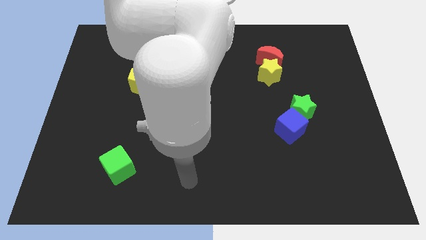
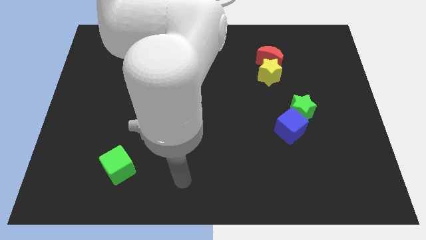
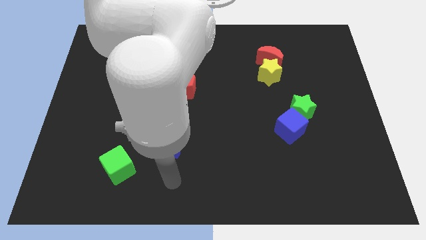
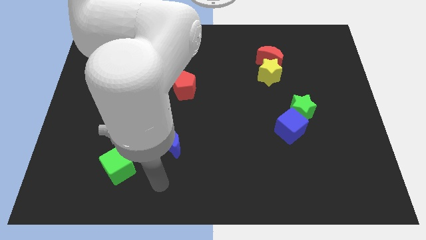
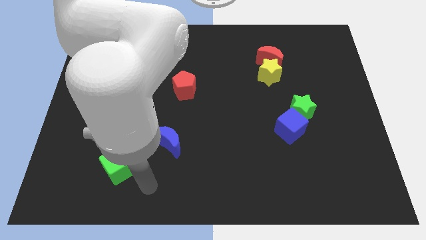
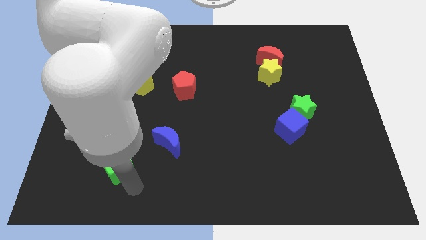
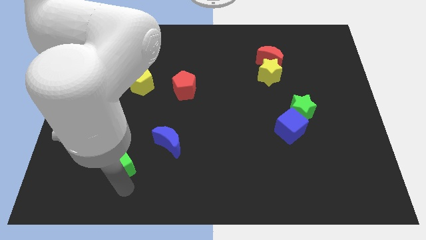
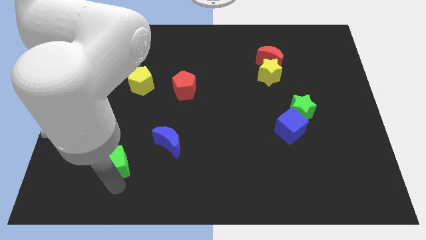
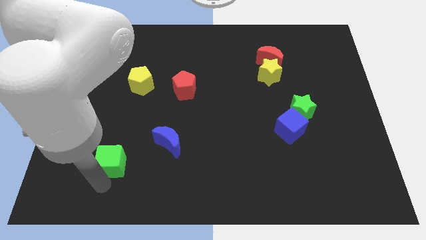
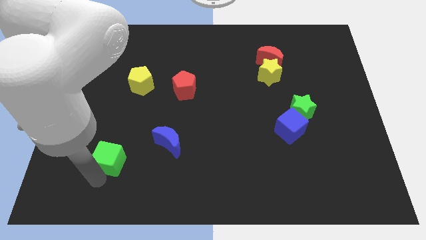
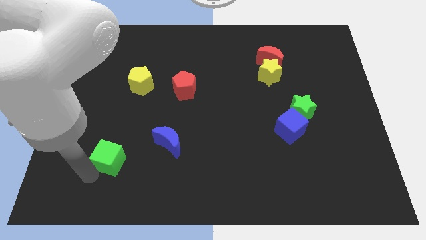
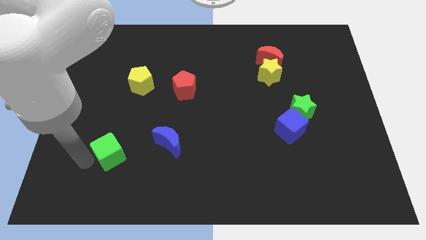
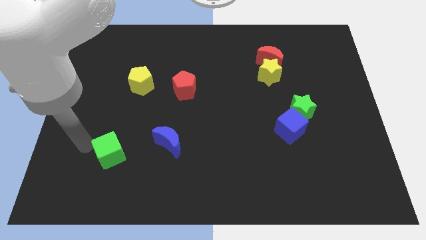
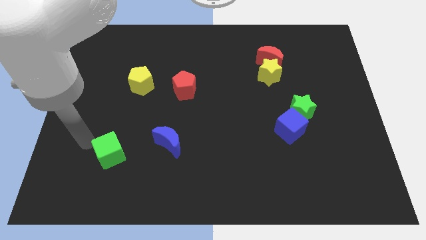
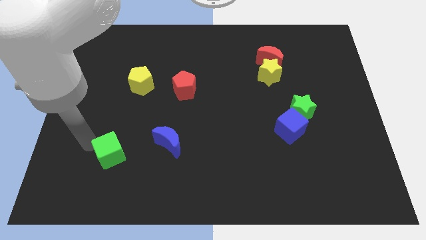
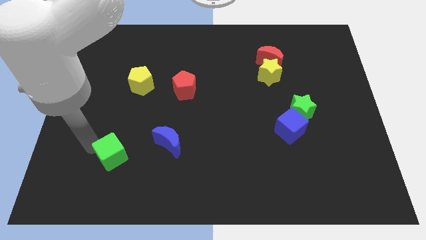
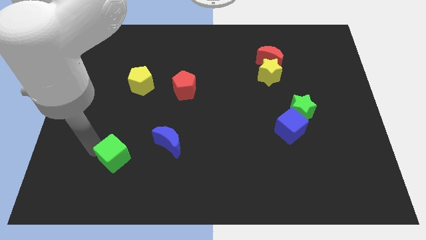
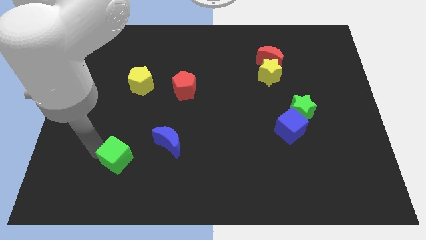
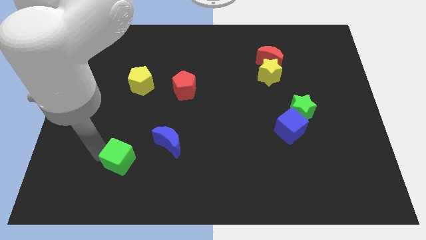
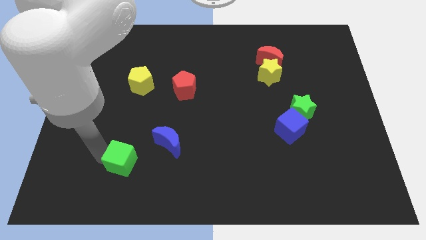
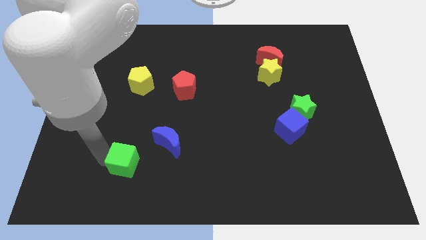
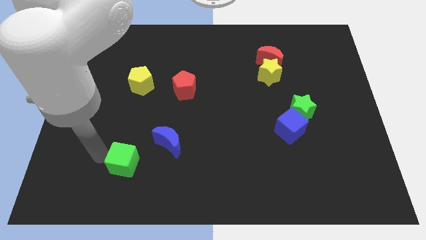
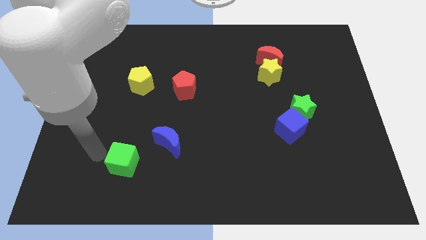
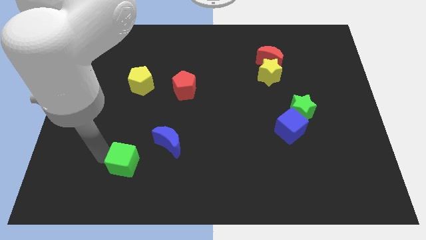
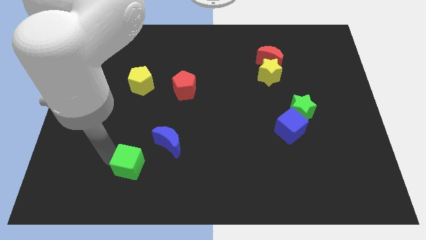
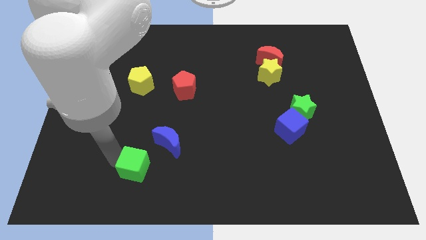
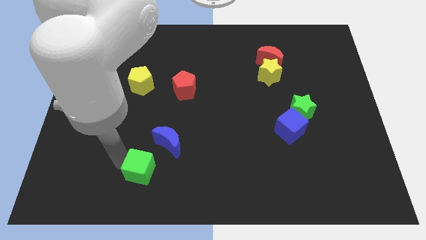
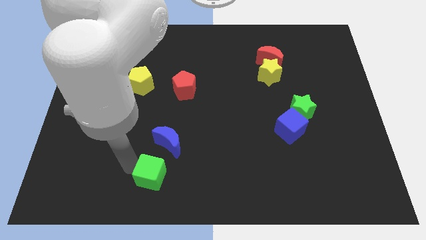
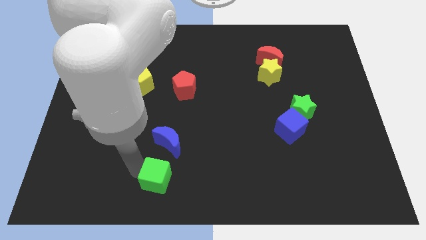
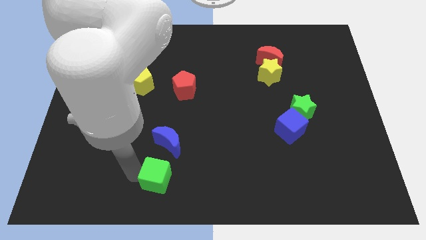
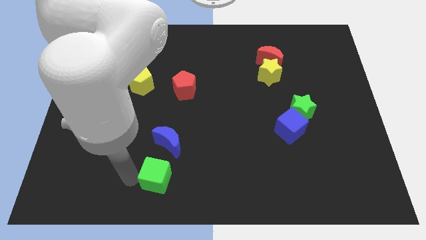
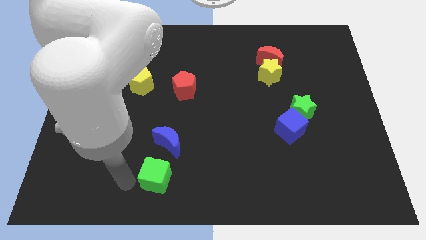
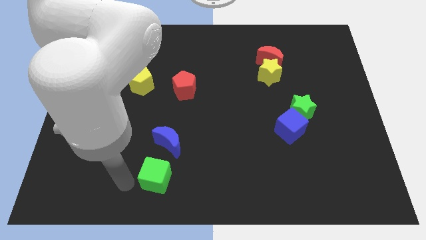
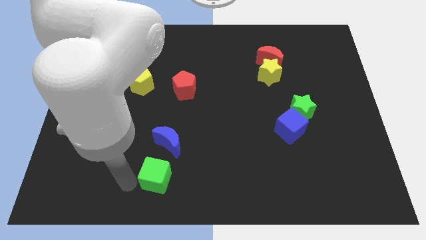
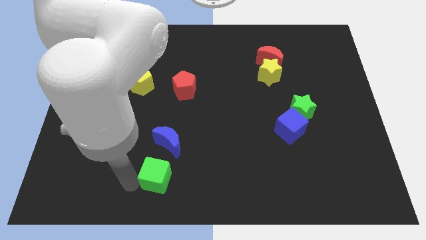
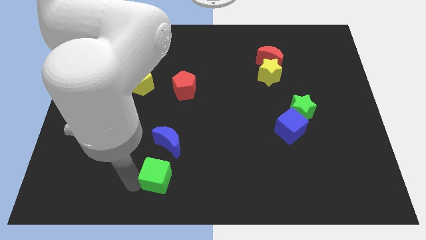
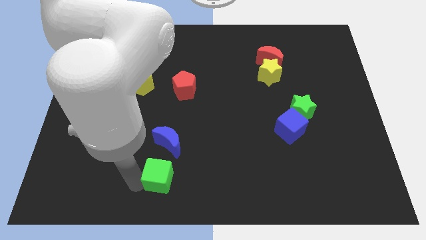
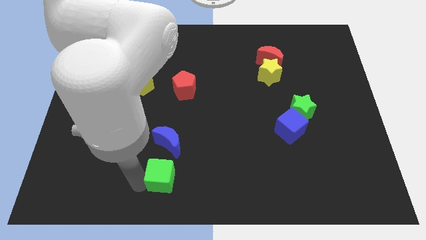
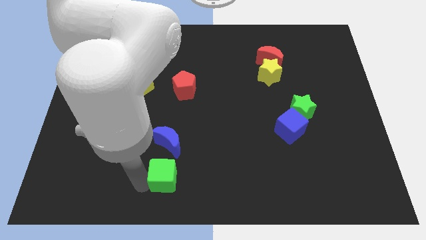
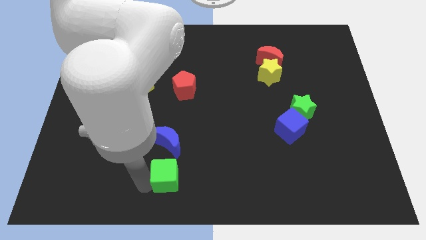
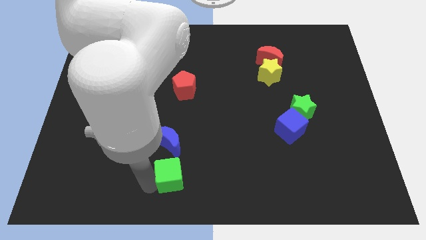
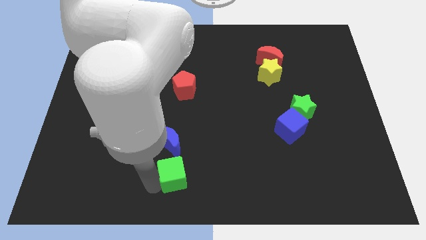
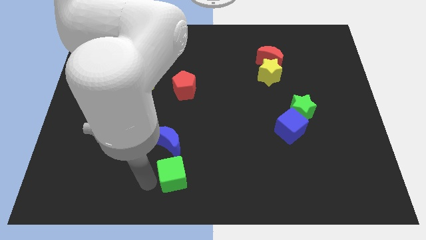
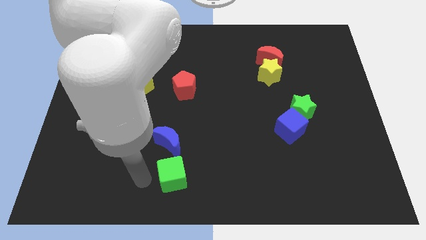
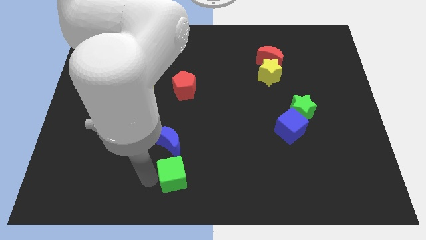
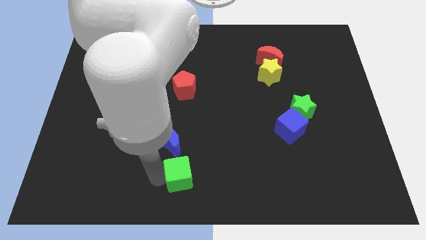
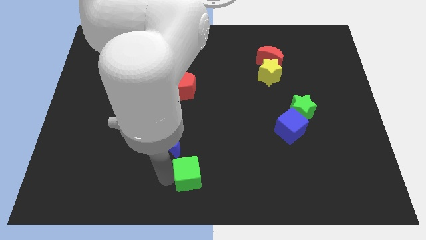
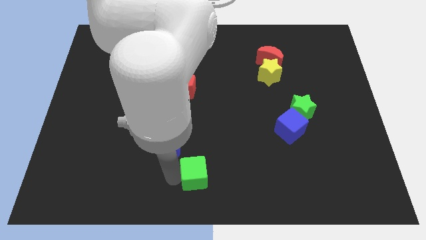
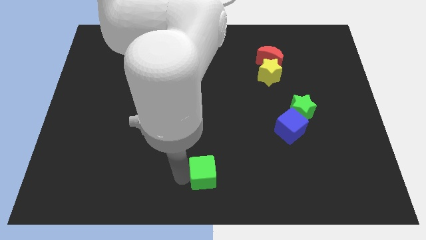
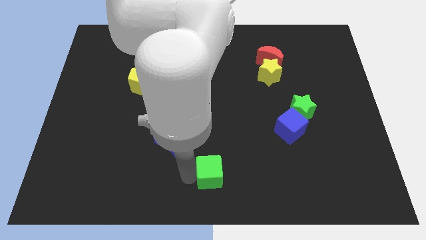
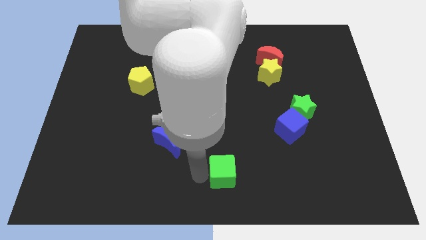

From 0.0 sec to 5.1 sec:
move the green cube to the right

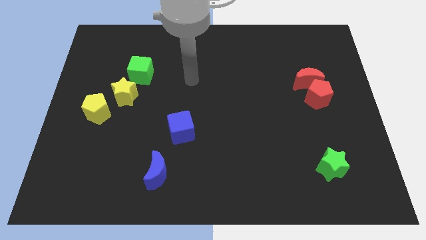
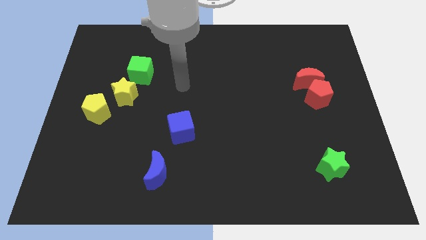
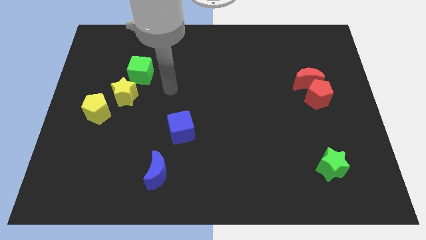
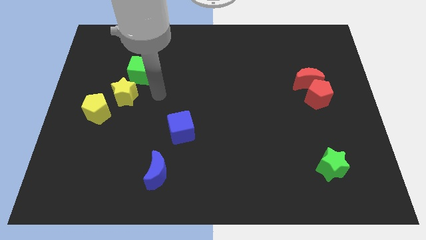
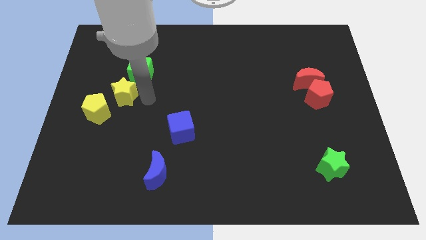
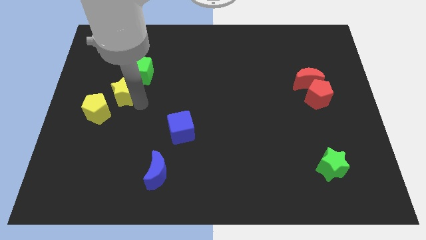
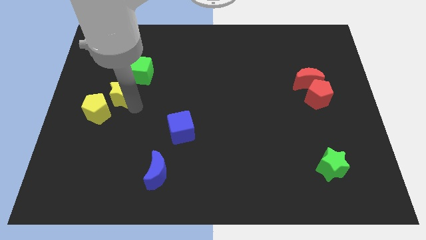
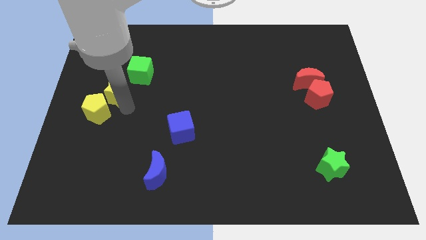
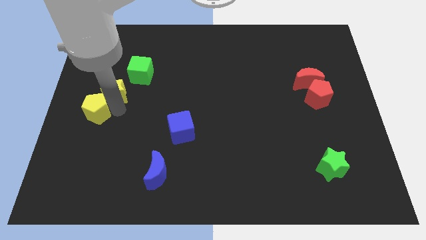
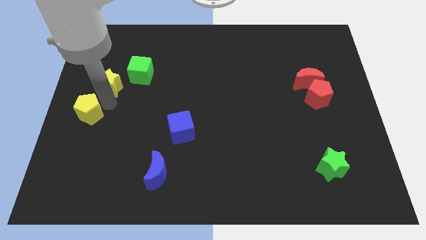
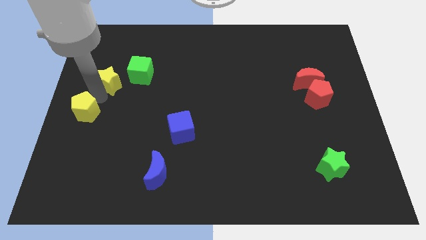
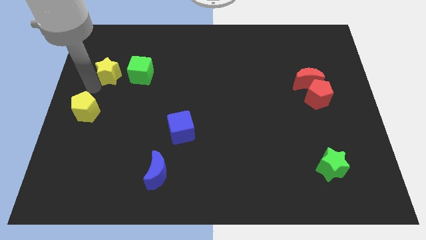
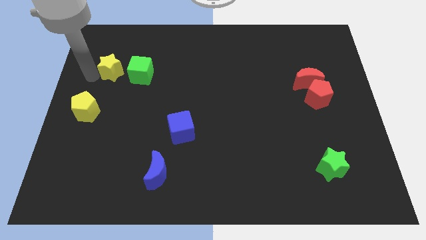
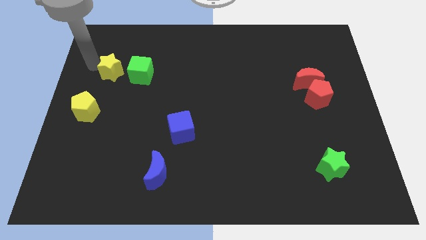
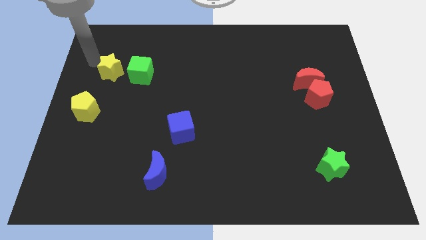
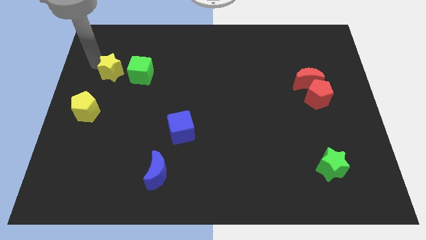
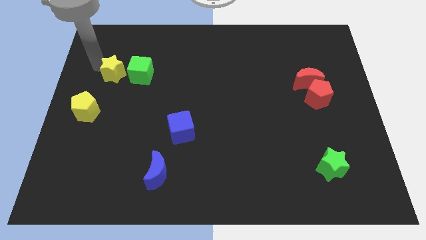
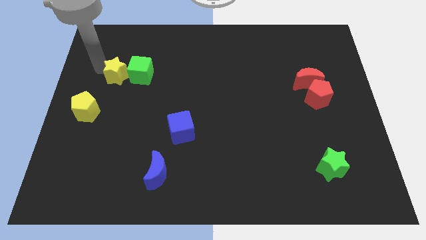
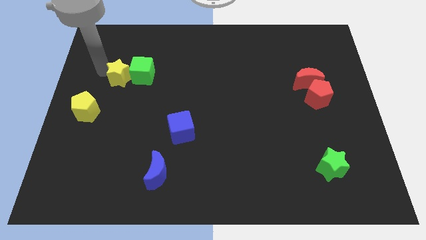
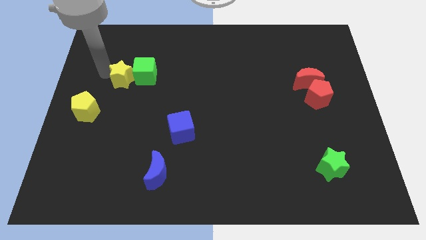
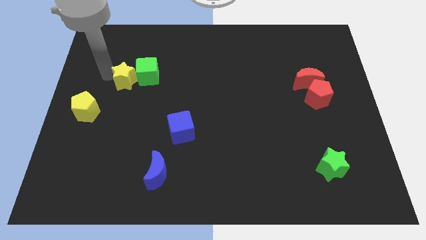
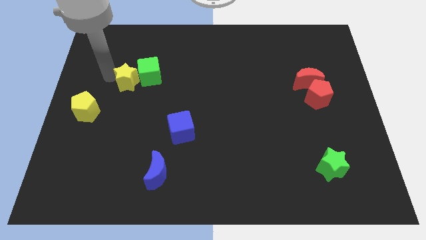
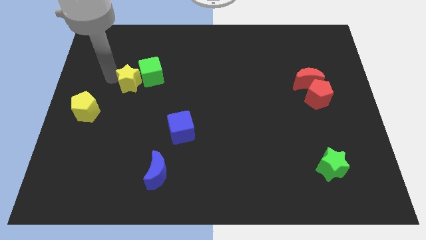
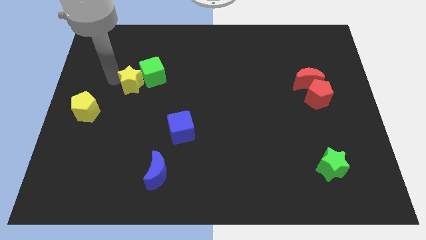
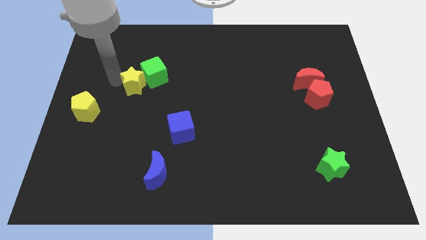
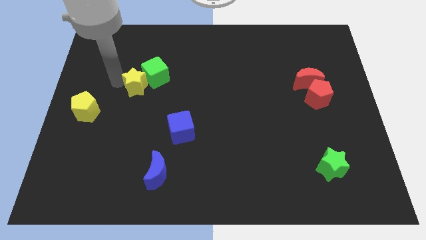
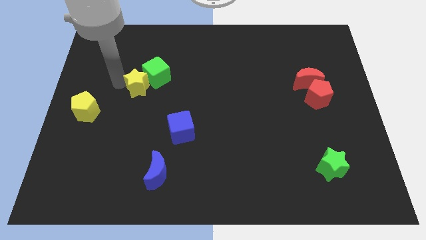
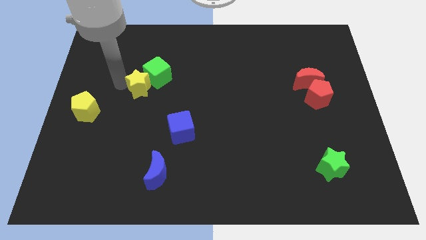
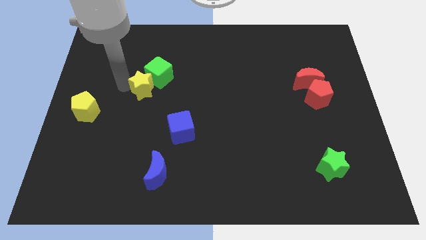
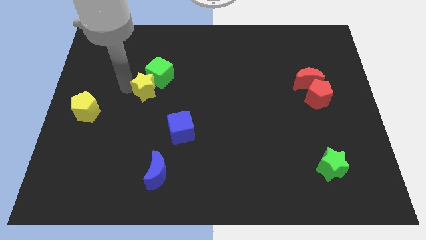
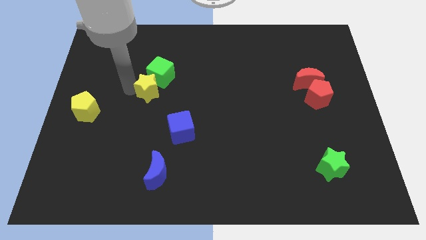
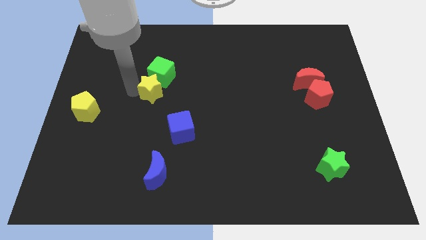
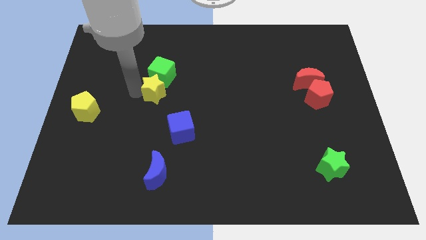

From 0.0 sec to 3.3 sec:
move the yellow star slightly to the right
